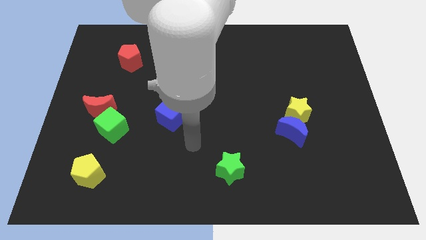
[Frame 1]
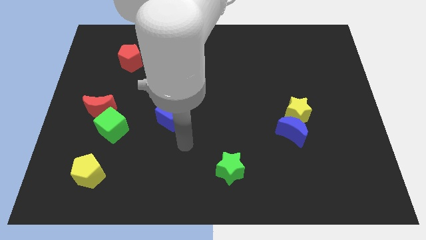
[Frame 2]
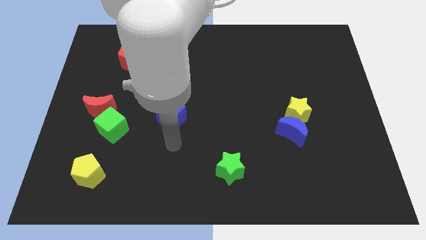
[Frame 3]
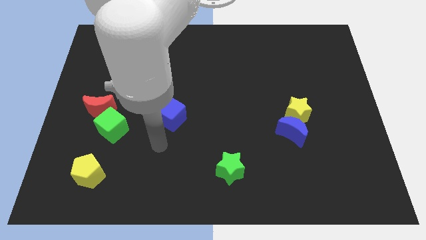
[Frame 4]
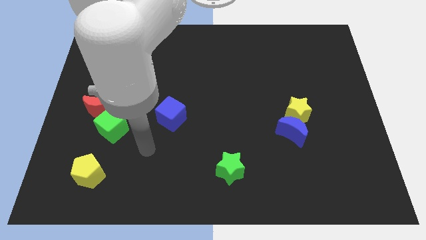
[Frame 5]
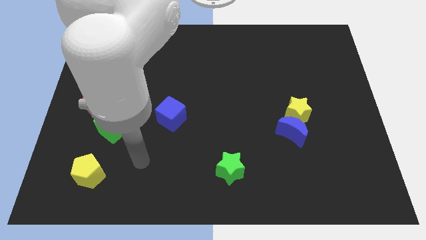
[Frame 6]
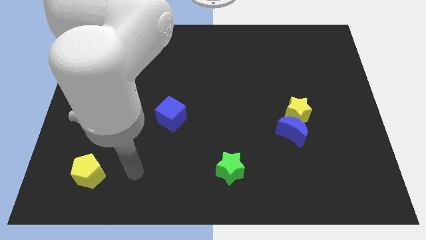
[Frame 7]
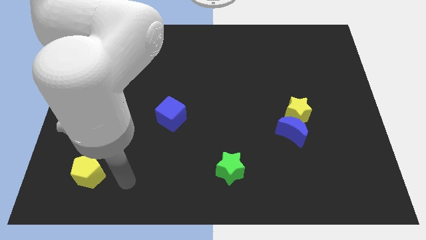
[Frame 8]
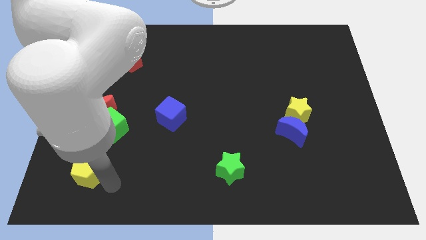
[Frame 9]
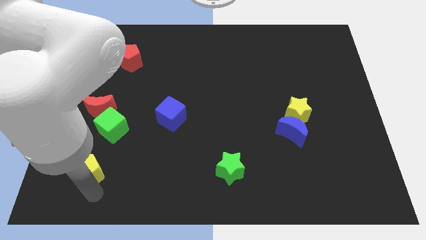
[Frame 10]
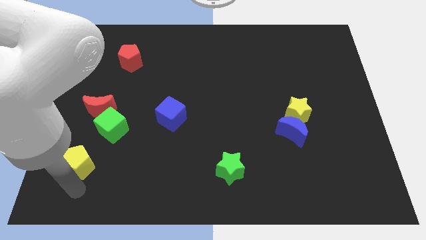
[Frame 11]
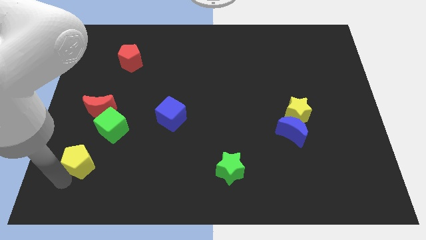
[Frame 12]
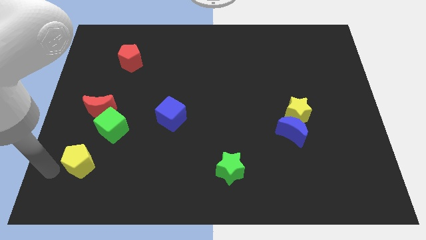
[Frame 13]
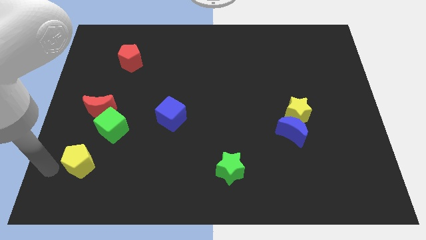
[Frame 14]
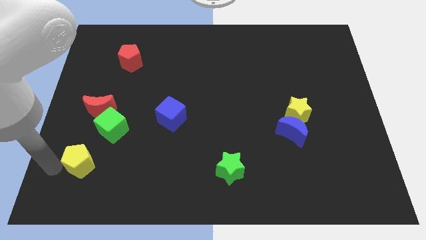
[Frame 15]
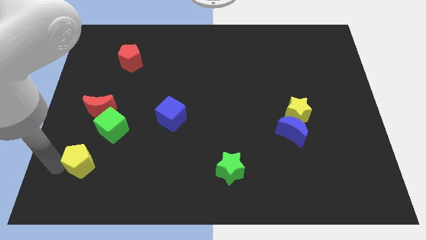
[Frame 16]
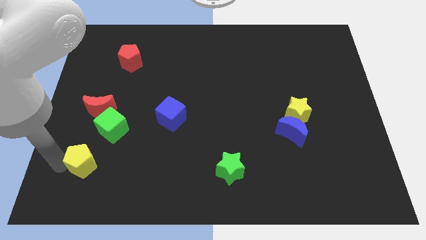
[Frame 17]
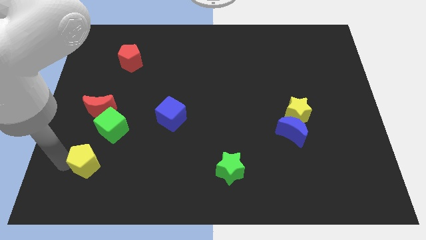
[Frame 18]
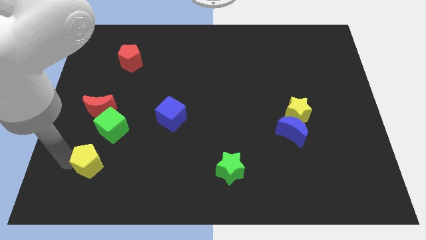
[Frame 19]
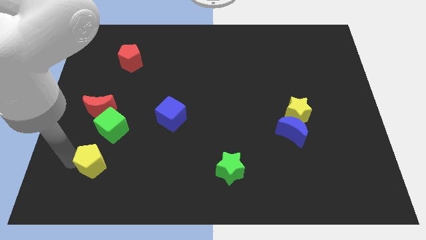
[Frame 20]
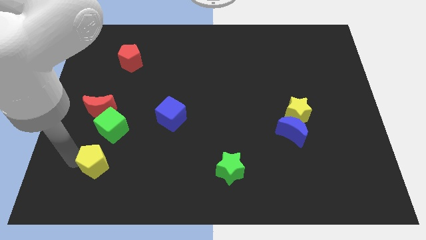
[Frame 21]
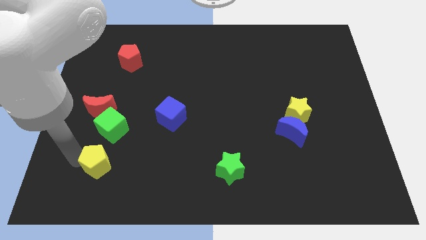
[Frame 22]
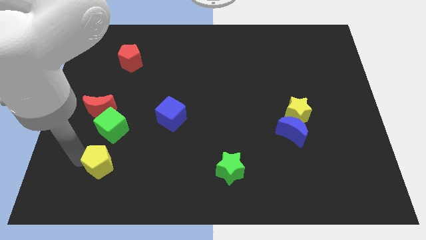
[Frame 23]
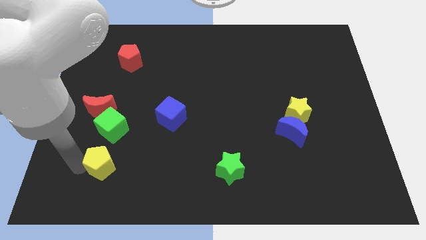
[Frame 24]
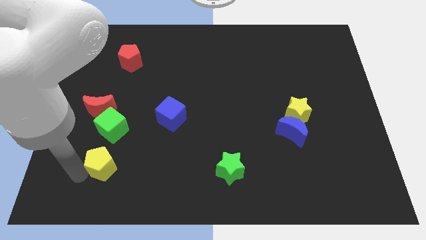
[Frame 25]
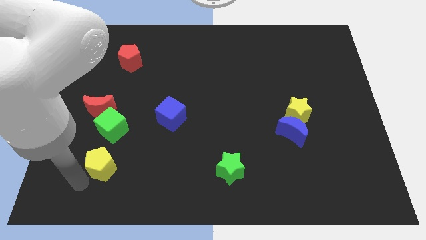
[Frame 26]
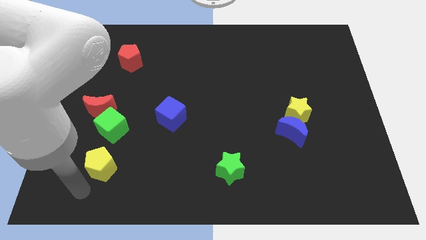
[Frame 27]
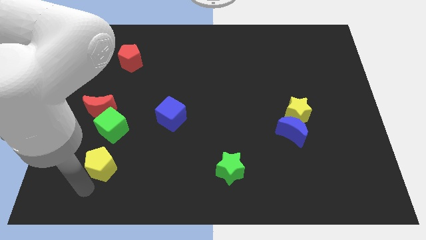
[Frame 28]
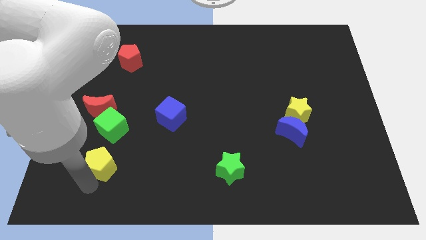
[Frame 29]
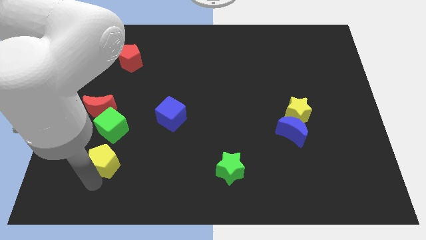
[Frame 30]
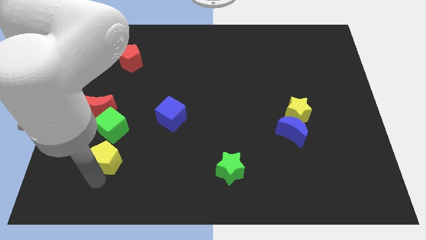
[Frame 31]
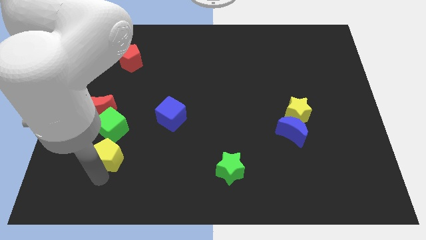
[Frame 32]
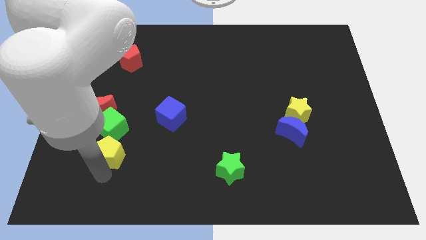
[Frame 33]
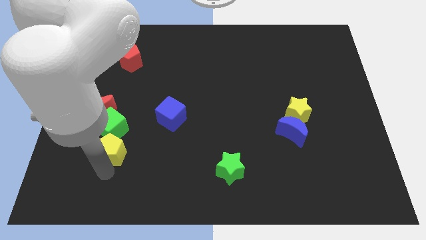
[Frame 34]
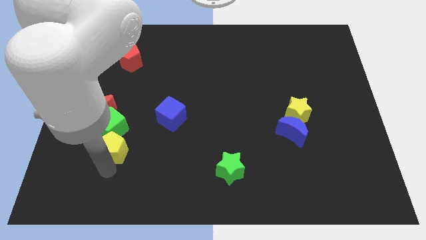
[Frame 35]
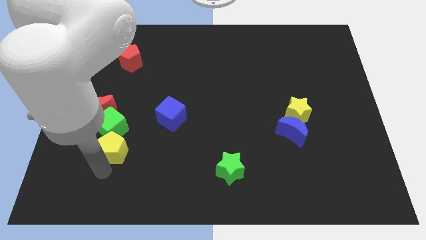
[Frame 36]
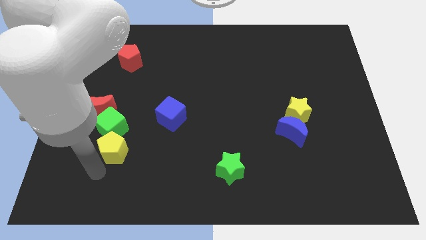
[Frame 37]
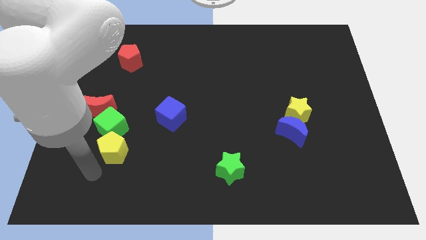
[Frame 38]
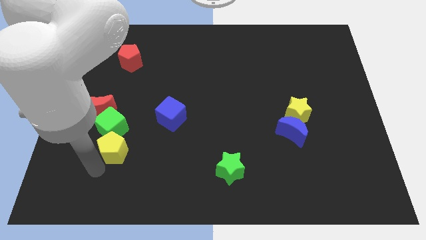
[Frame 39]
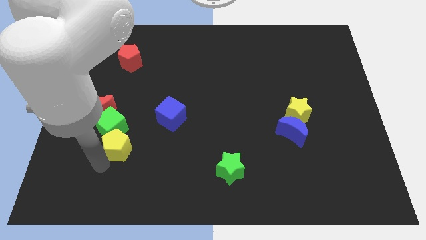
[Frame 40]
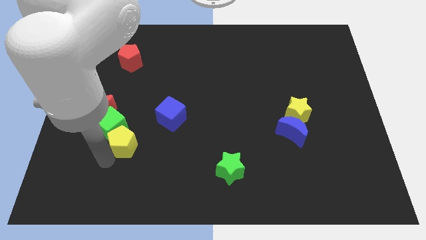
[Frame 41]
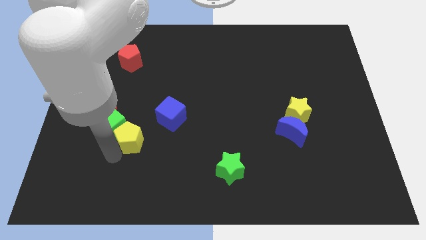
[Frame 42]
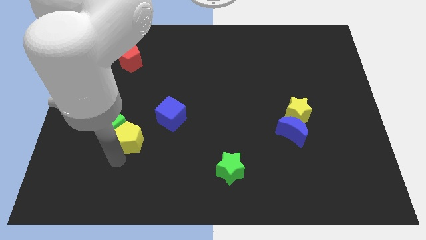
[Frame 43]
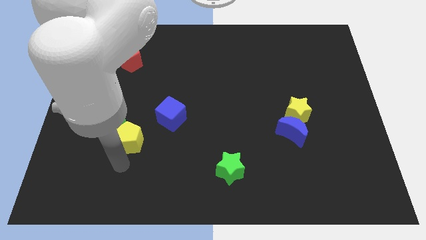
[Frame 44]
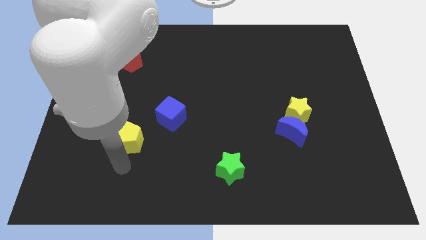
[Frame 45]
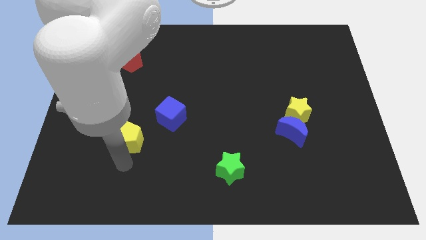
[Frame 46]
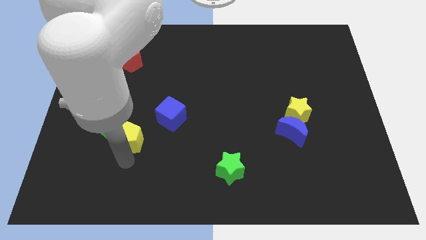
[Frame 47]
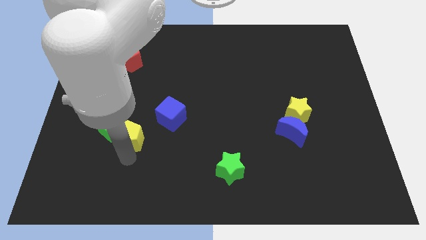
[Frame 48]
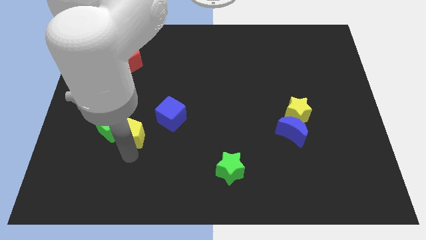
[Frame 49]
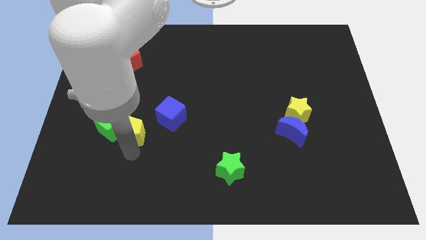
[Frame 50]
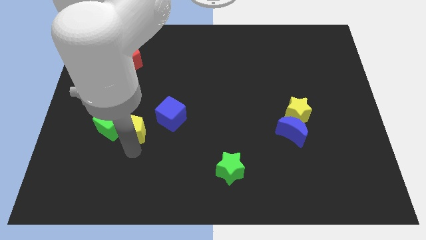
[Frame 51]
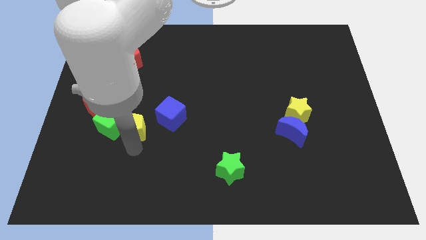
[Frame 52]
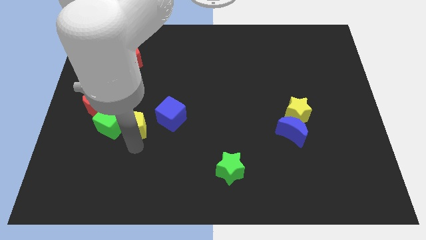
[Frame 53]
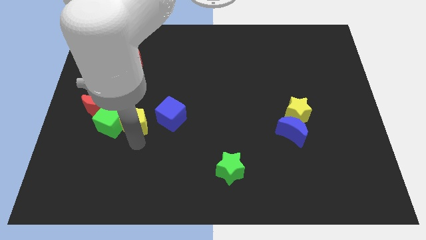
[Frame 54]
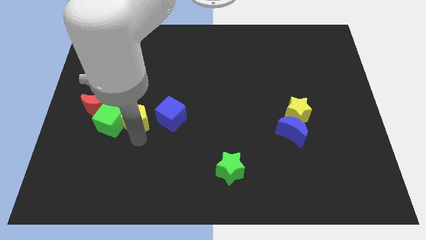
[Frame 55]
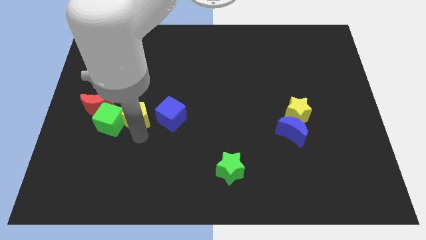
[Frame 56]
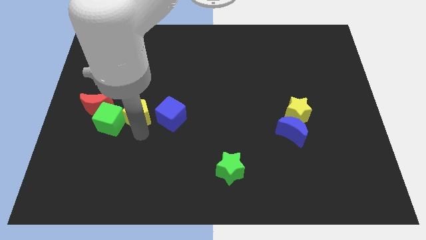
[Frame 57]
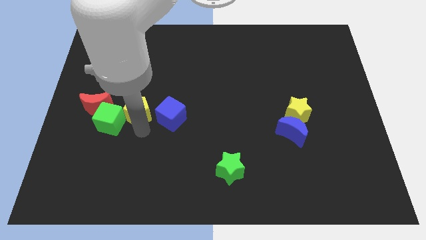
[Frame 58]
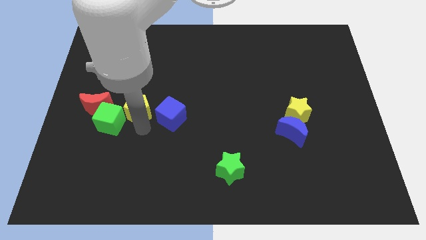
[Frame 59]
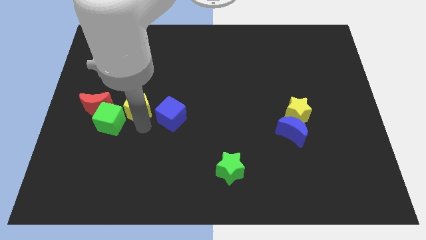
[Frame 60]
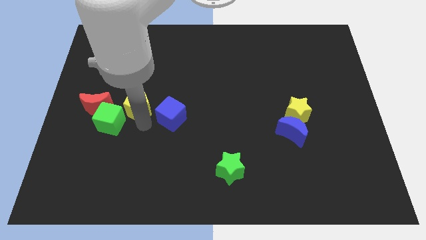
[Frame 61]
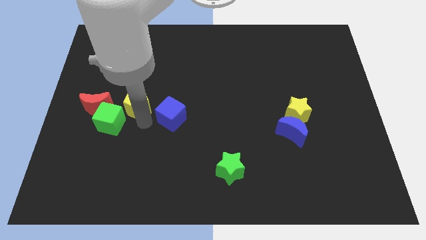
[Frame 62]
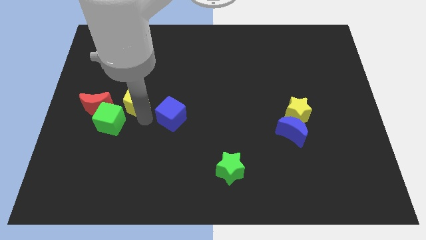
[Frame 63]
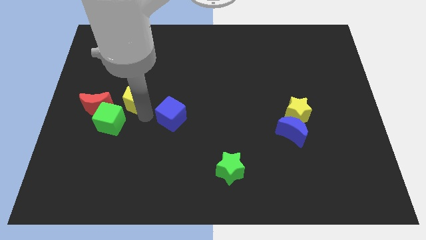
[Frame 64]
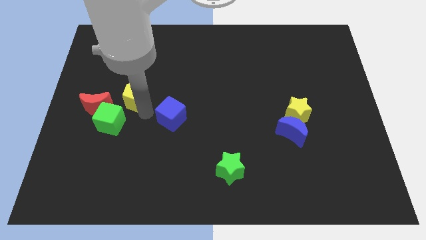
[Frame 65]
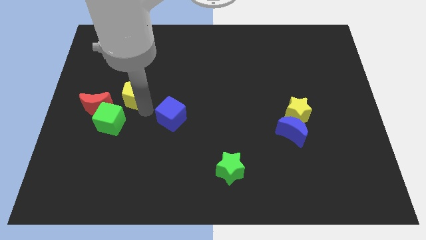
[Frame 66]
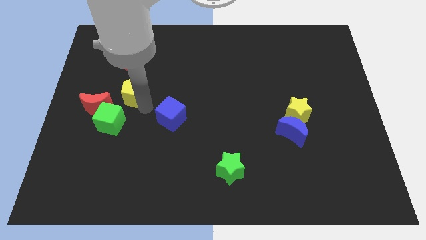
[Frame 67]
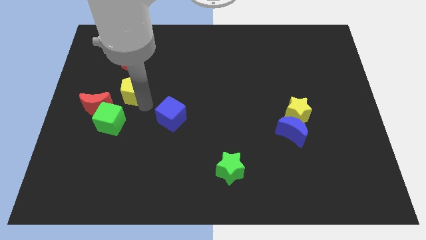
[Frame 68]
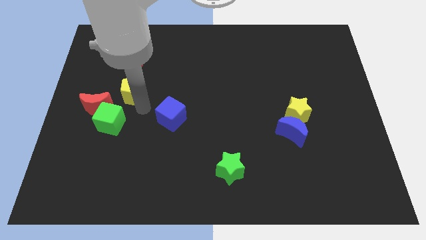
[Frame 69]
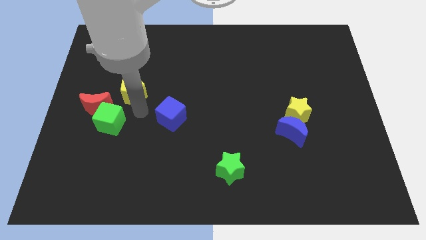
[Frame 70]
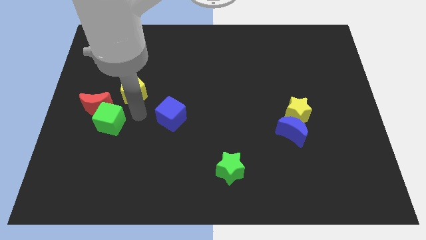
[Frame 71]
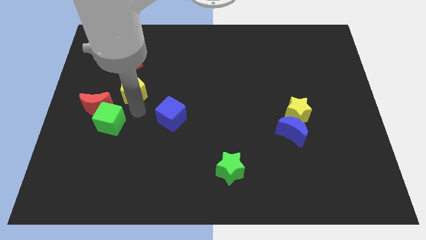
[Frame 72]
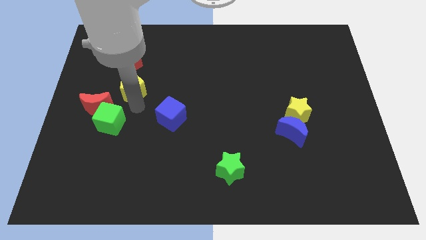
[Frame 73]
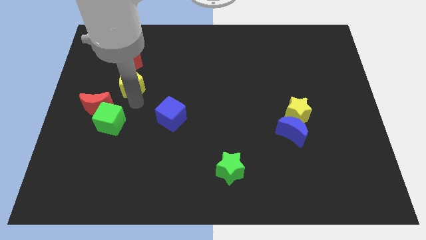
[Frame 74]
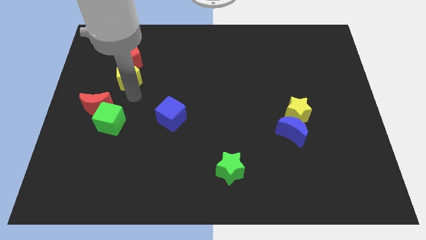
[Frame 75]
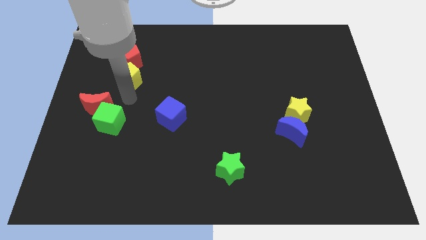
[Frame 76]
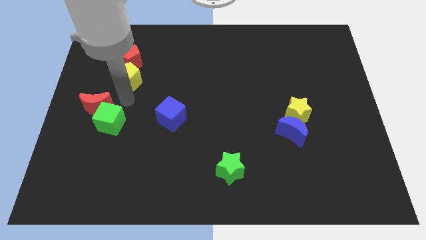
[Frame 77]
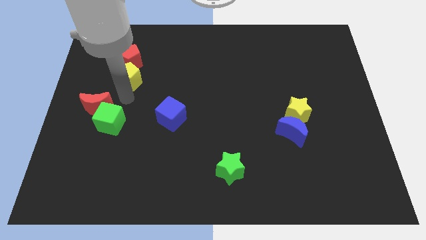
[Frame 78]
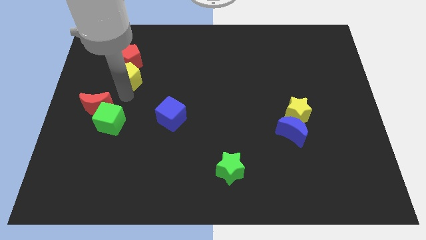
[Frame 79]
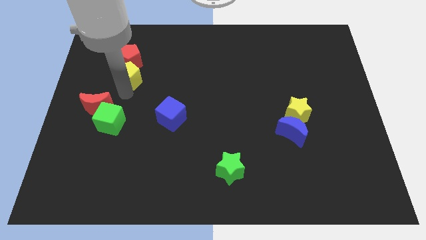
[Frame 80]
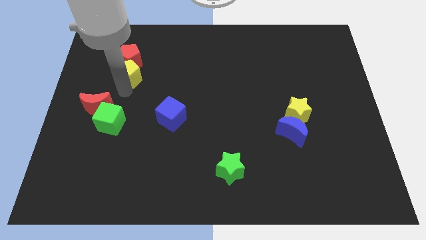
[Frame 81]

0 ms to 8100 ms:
move the yellow pentagon next to the red pentagon
